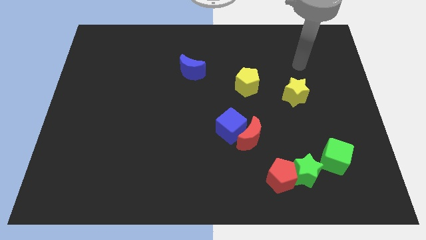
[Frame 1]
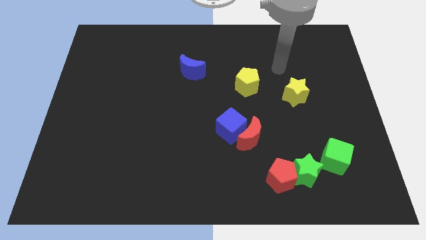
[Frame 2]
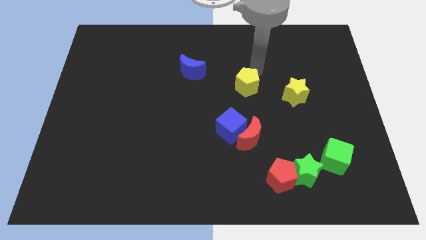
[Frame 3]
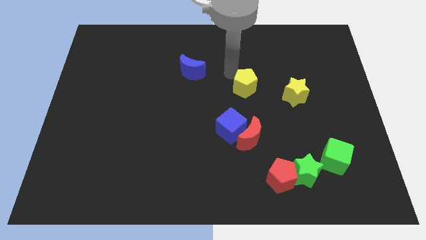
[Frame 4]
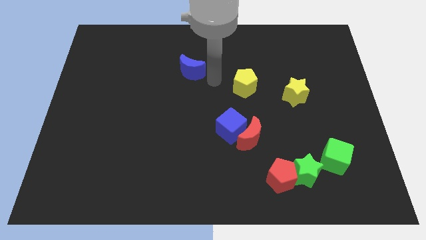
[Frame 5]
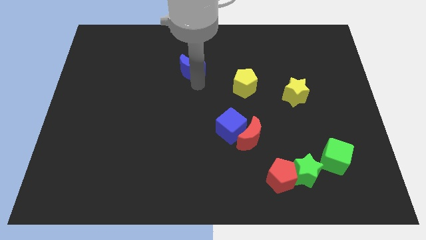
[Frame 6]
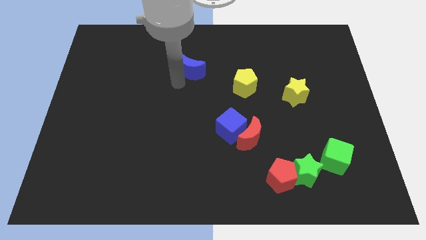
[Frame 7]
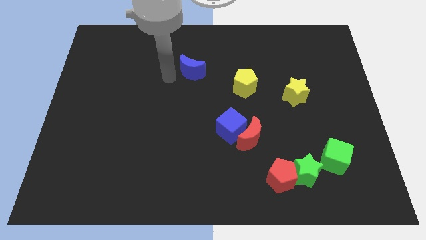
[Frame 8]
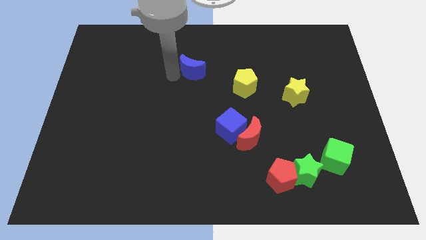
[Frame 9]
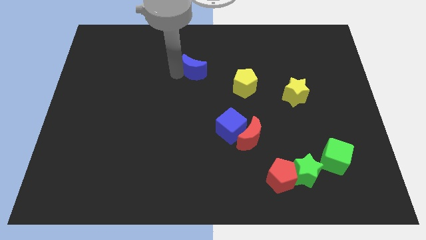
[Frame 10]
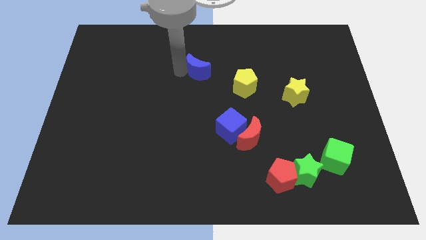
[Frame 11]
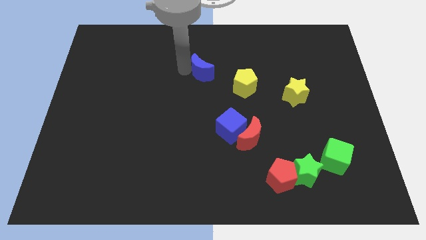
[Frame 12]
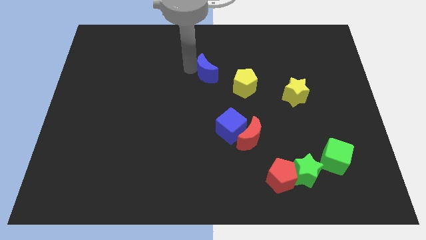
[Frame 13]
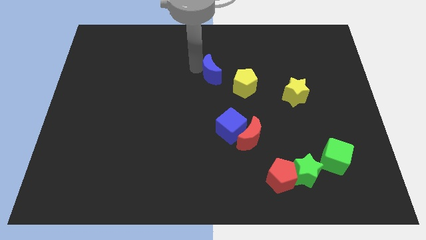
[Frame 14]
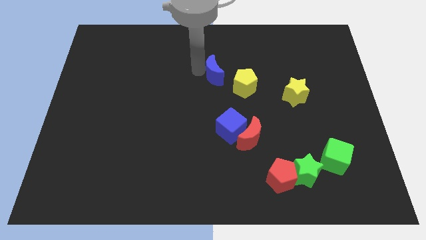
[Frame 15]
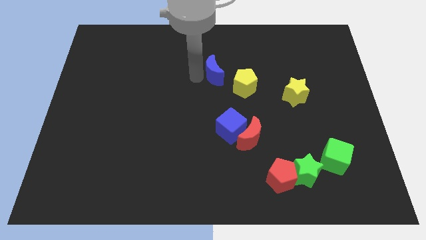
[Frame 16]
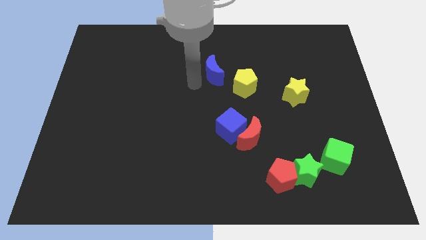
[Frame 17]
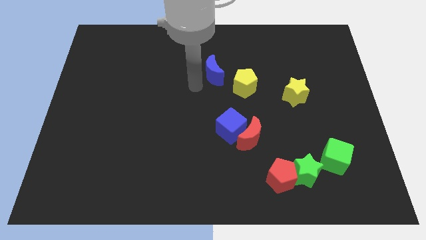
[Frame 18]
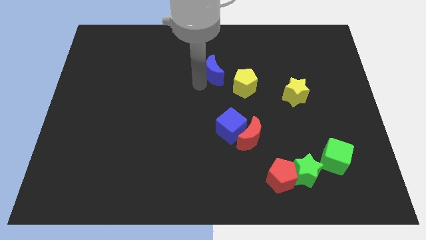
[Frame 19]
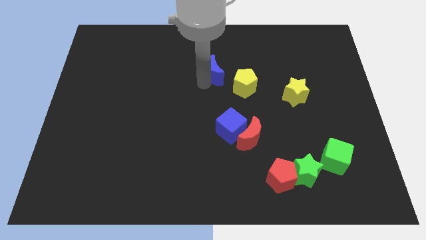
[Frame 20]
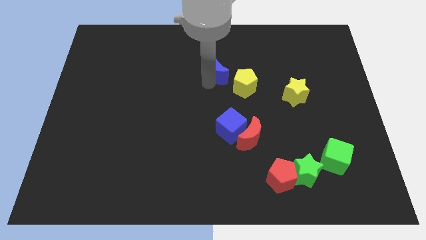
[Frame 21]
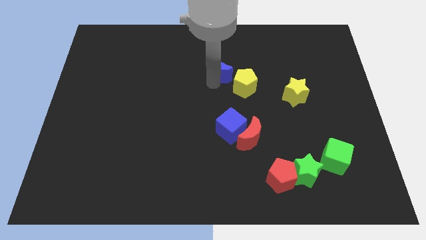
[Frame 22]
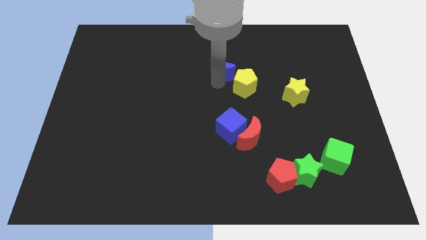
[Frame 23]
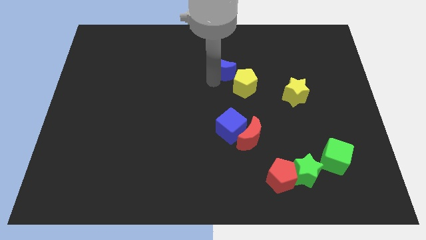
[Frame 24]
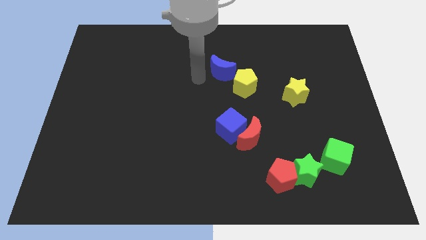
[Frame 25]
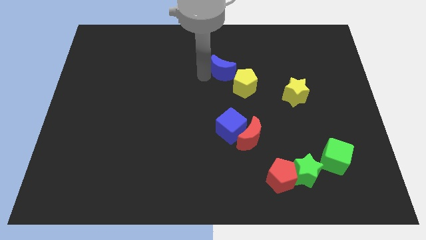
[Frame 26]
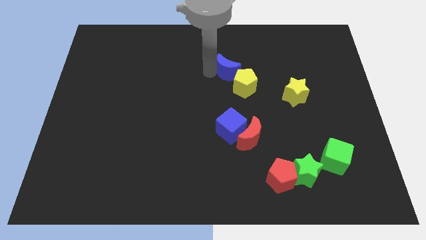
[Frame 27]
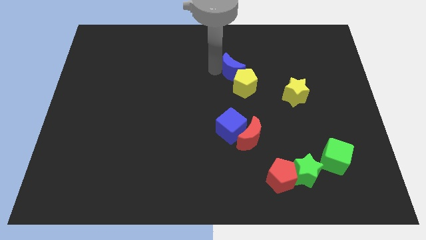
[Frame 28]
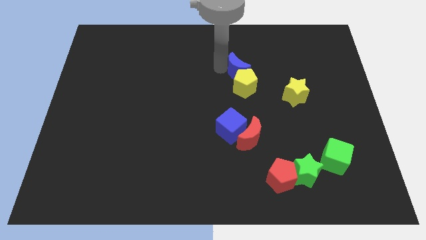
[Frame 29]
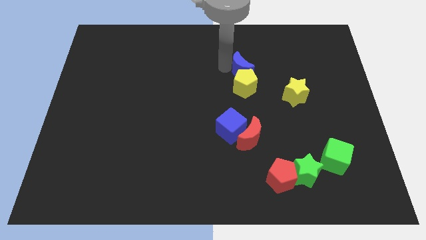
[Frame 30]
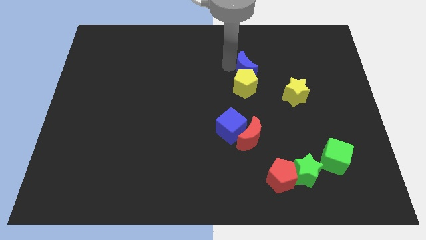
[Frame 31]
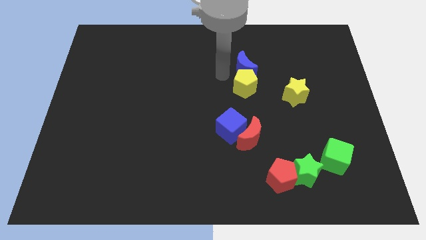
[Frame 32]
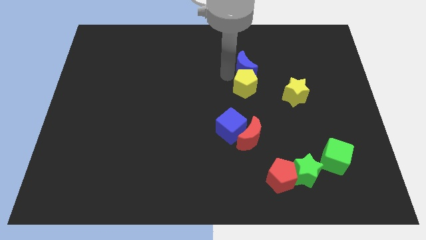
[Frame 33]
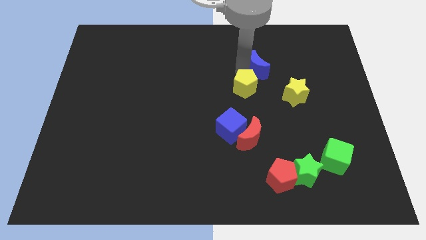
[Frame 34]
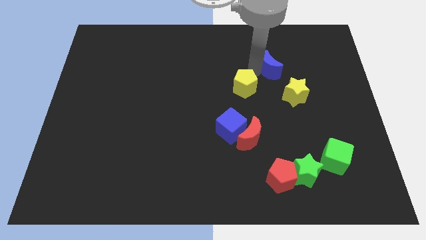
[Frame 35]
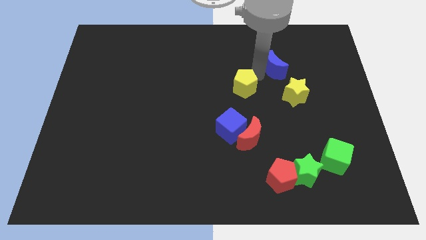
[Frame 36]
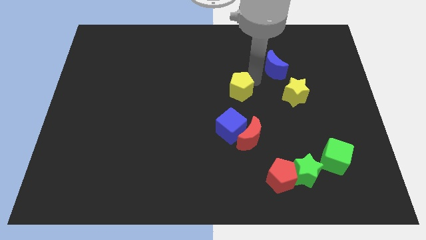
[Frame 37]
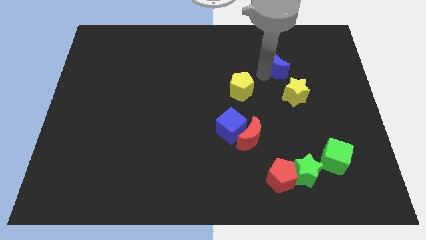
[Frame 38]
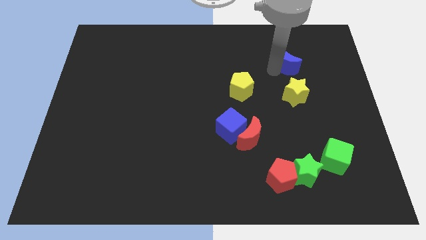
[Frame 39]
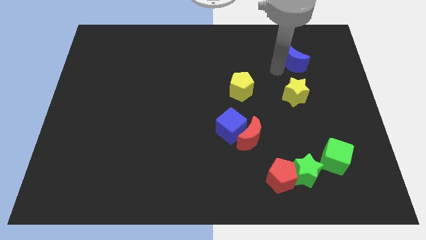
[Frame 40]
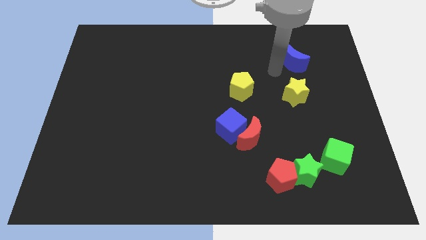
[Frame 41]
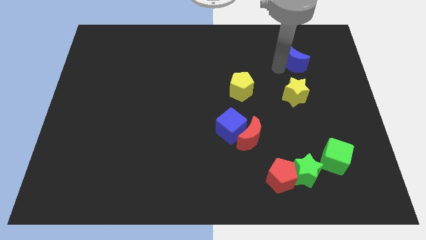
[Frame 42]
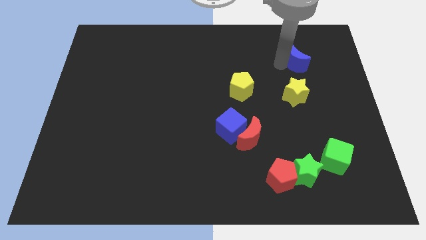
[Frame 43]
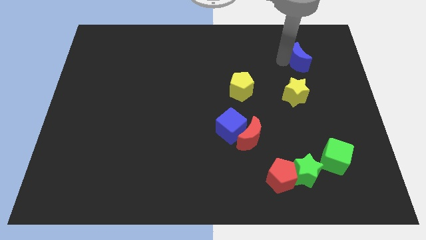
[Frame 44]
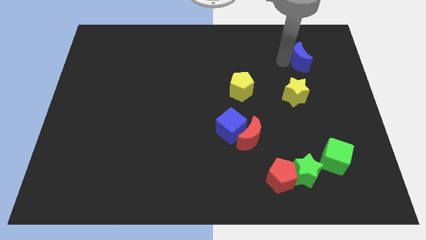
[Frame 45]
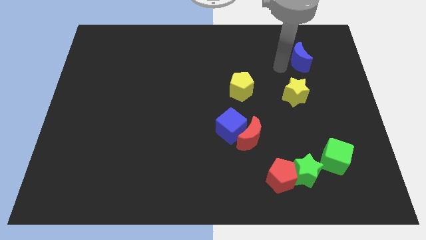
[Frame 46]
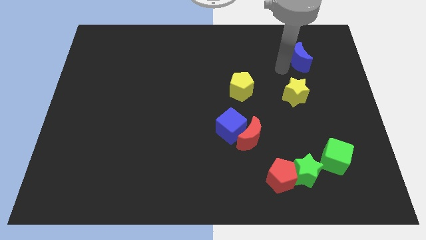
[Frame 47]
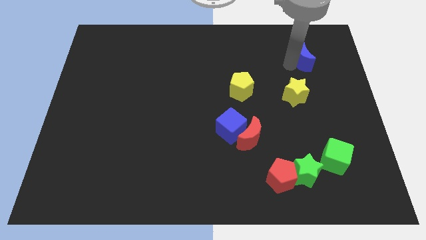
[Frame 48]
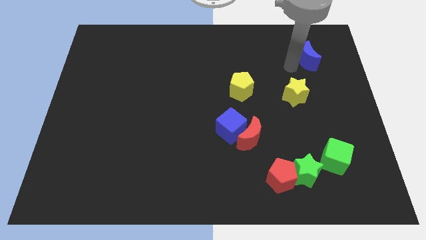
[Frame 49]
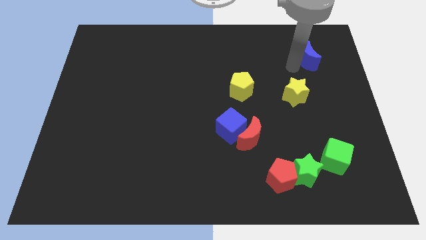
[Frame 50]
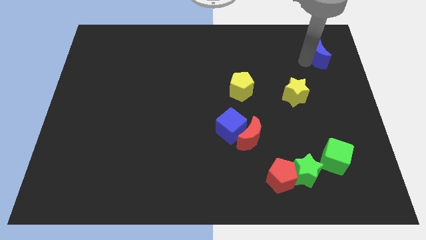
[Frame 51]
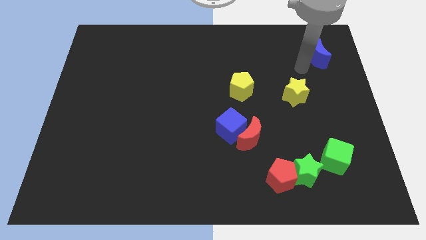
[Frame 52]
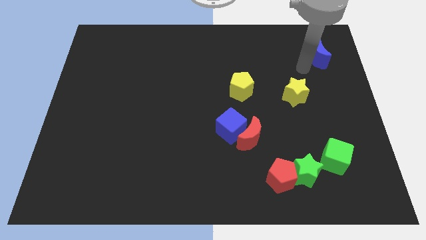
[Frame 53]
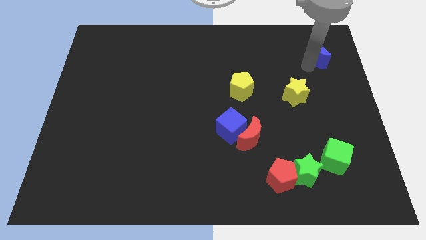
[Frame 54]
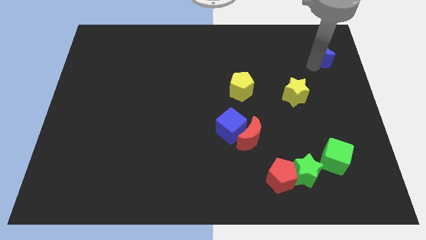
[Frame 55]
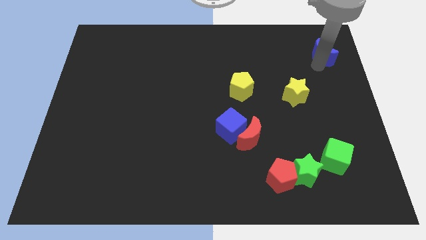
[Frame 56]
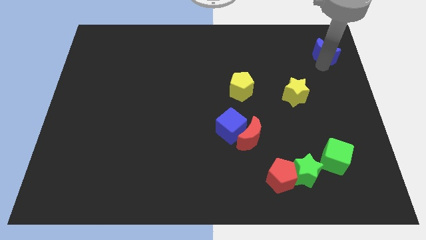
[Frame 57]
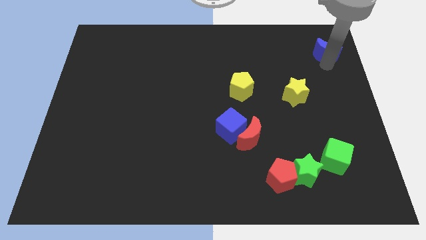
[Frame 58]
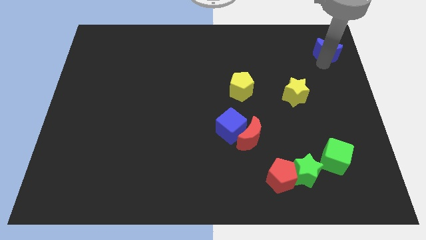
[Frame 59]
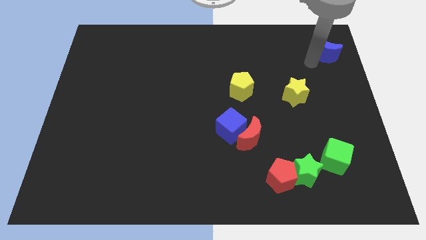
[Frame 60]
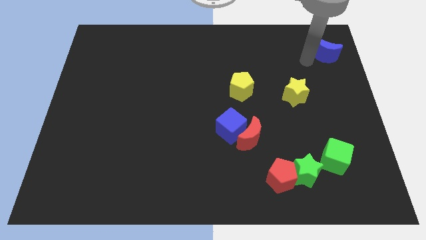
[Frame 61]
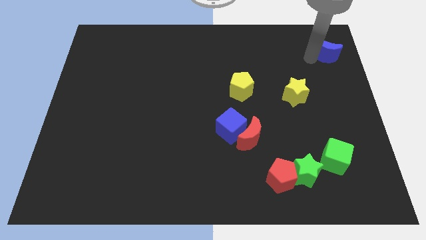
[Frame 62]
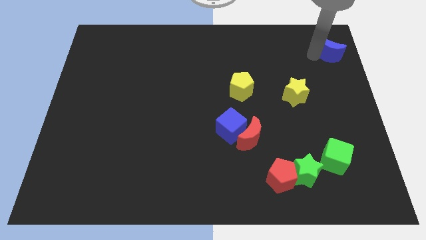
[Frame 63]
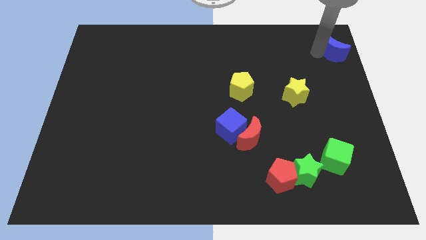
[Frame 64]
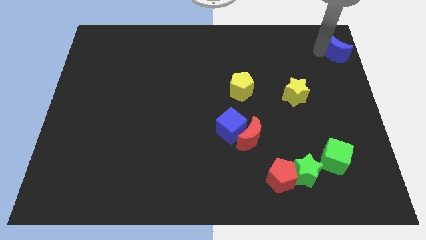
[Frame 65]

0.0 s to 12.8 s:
push the blue moon to the top right corner
